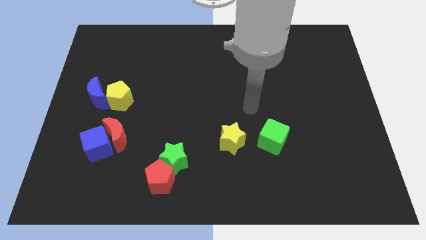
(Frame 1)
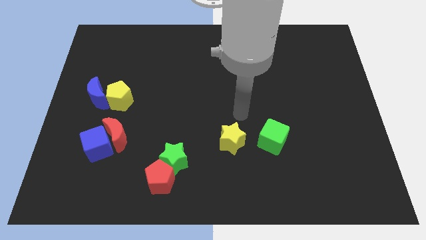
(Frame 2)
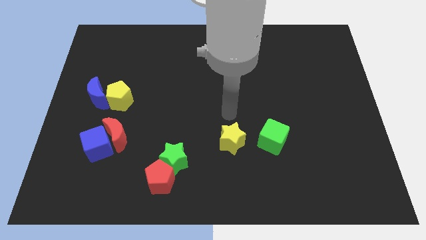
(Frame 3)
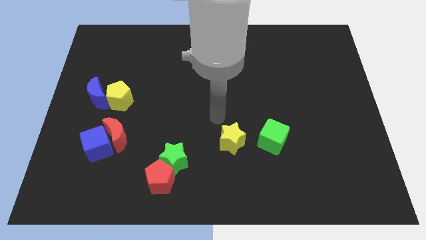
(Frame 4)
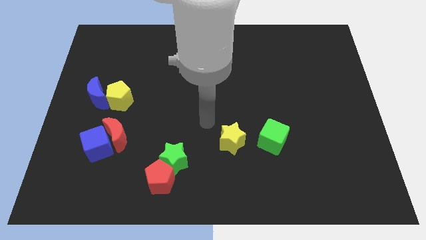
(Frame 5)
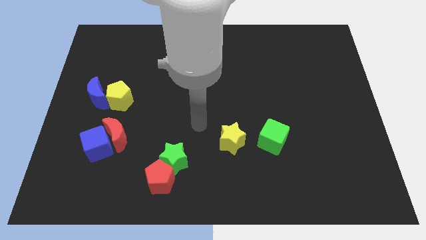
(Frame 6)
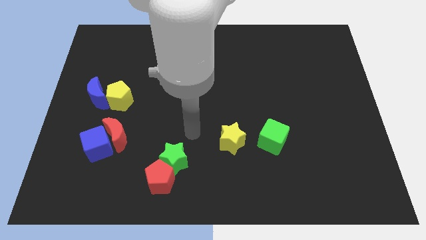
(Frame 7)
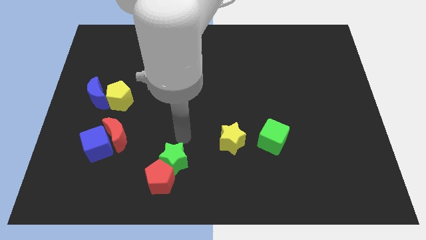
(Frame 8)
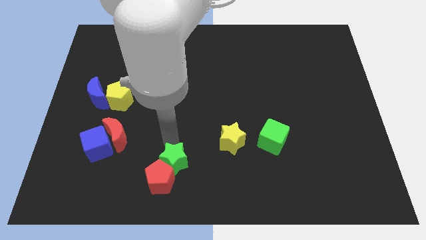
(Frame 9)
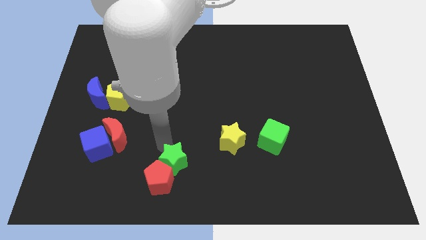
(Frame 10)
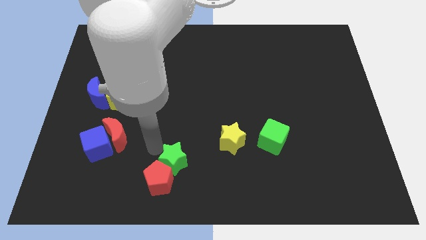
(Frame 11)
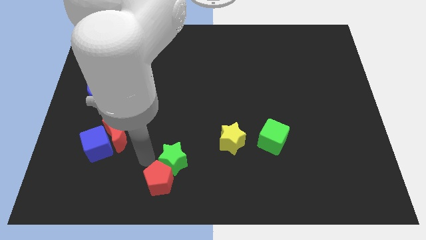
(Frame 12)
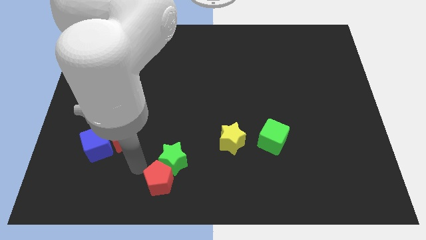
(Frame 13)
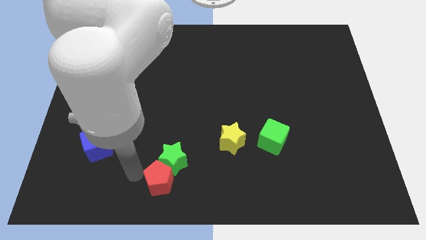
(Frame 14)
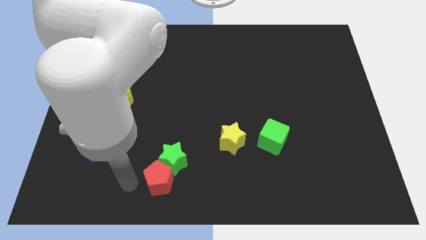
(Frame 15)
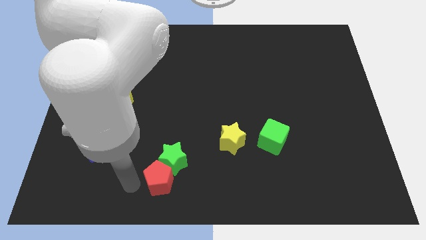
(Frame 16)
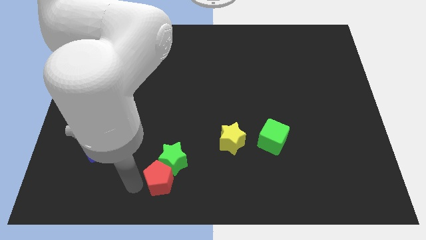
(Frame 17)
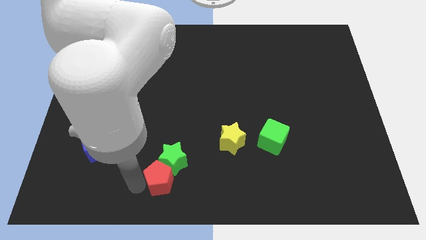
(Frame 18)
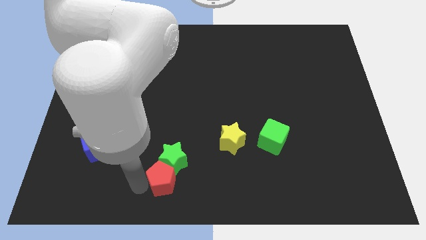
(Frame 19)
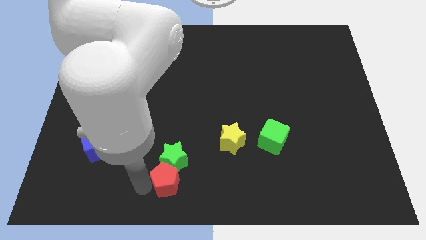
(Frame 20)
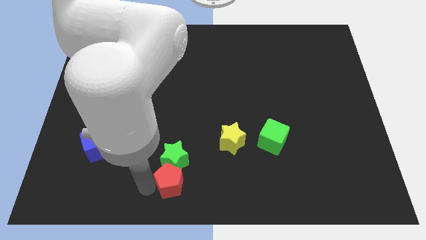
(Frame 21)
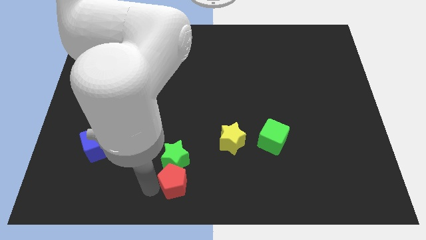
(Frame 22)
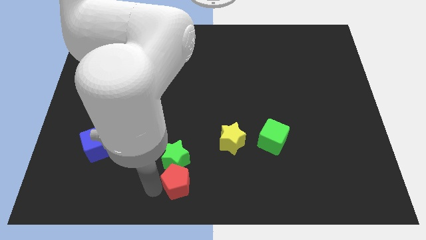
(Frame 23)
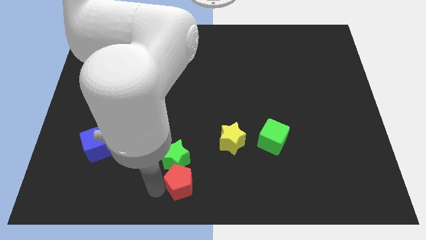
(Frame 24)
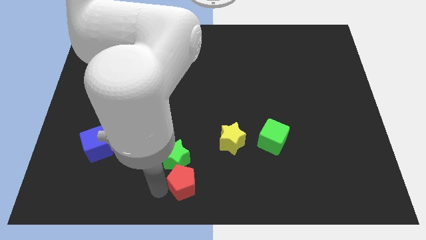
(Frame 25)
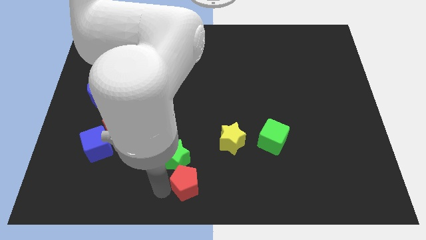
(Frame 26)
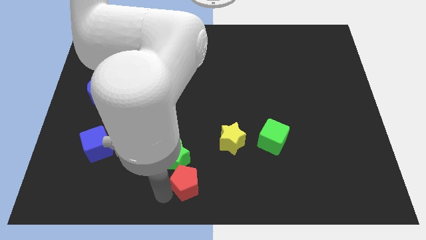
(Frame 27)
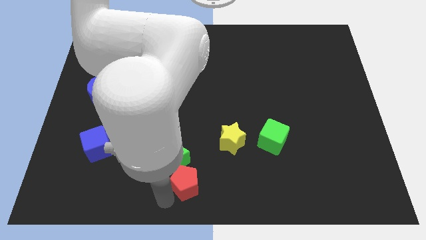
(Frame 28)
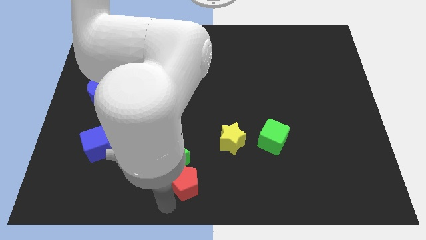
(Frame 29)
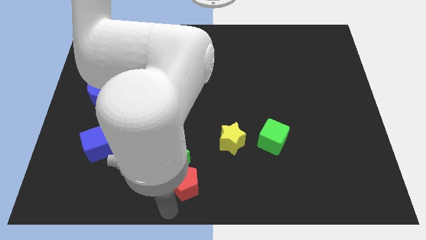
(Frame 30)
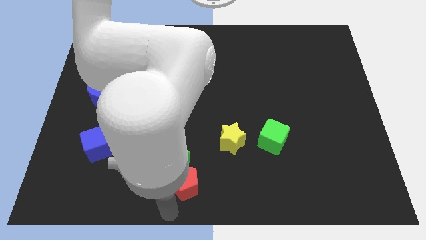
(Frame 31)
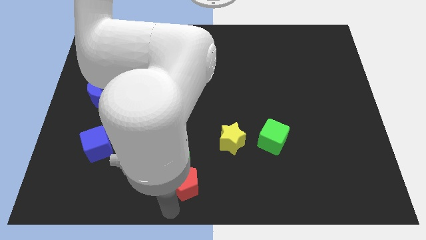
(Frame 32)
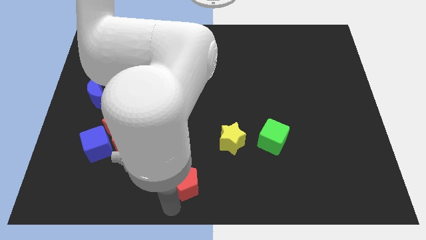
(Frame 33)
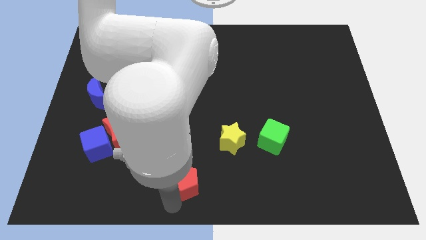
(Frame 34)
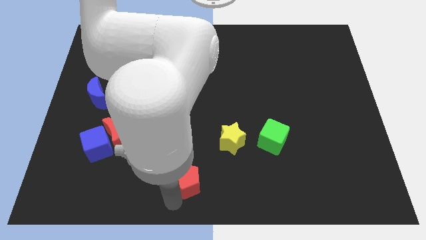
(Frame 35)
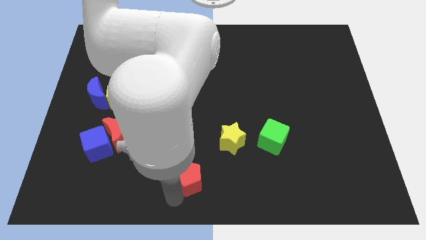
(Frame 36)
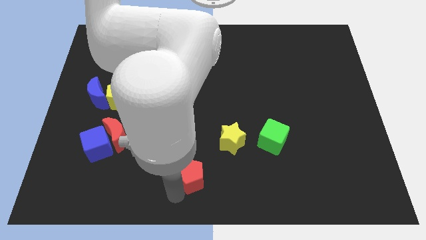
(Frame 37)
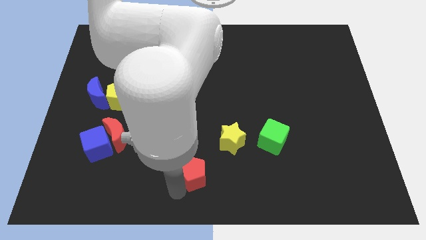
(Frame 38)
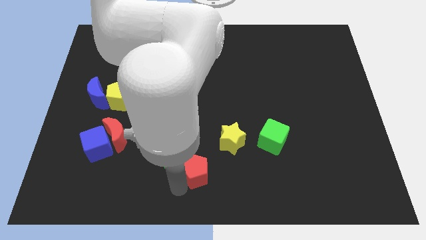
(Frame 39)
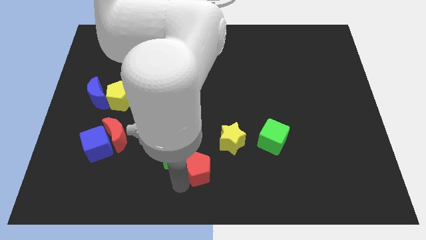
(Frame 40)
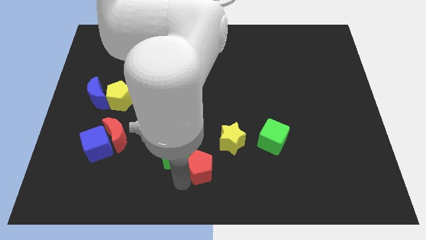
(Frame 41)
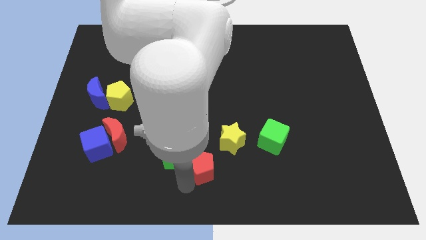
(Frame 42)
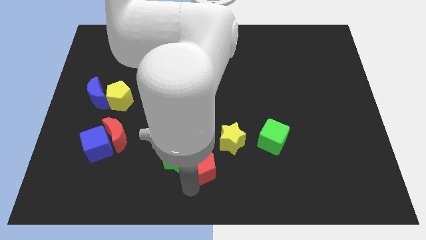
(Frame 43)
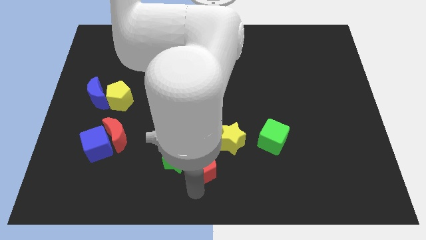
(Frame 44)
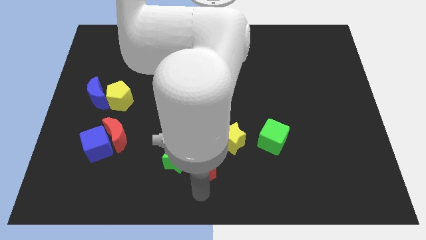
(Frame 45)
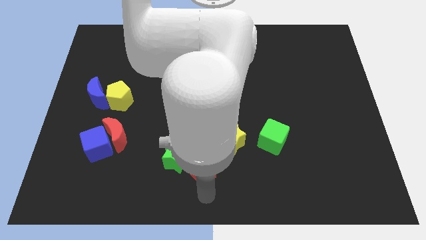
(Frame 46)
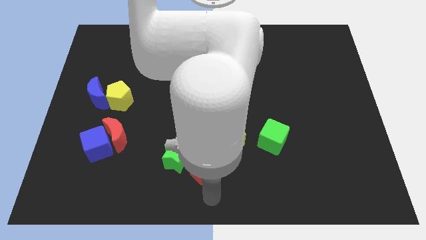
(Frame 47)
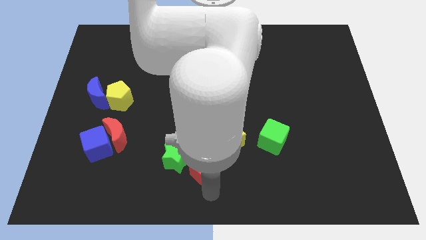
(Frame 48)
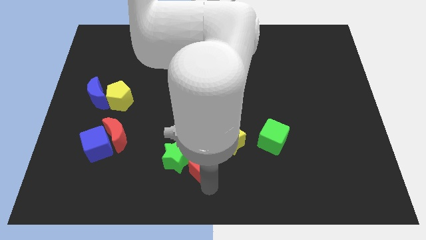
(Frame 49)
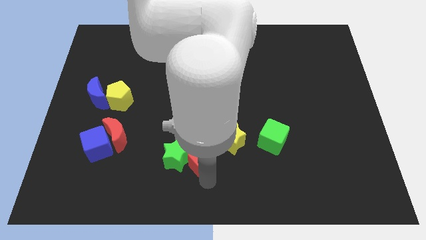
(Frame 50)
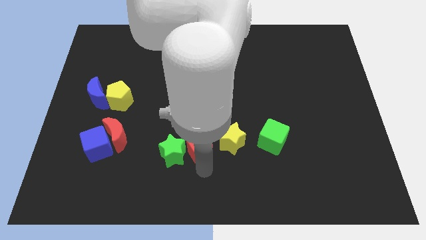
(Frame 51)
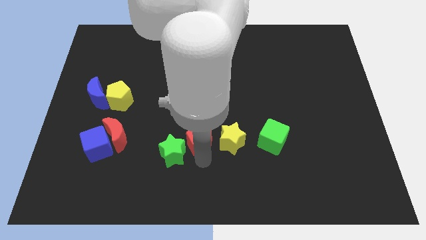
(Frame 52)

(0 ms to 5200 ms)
put the red pentagon to the center

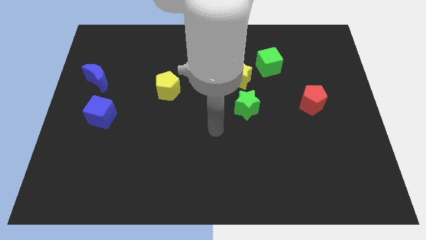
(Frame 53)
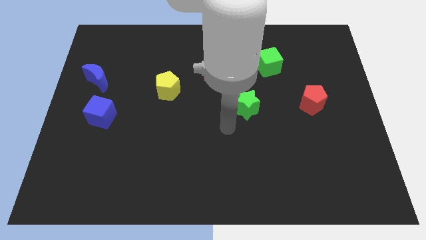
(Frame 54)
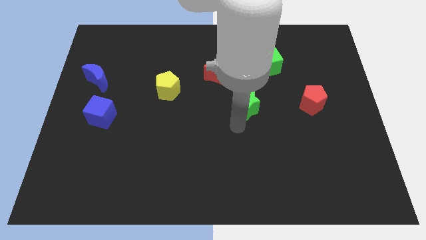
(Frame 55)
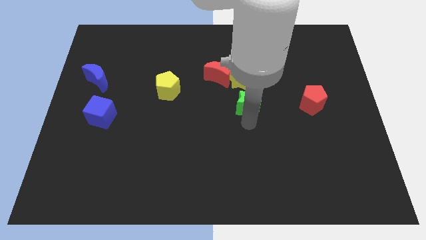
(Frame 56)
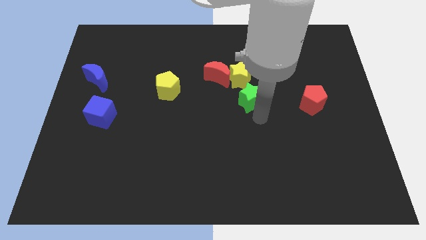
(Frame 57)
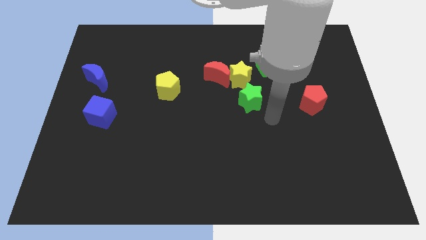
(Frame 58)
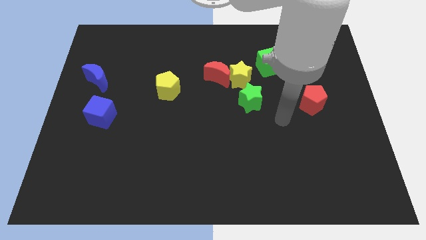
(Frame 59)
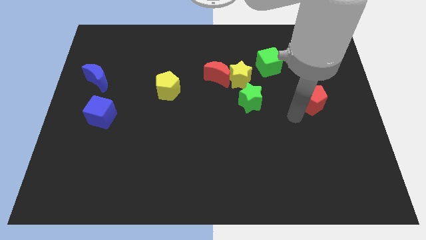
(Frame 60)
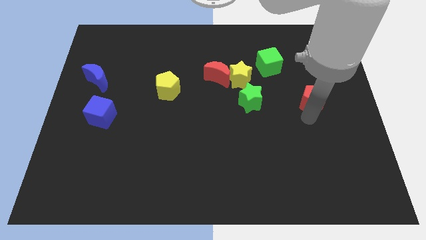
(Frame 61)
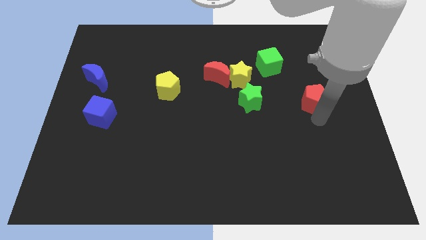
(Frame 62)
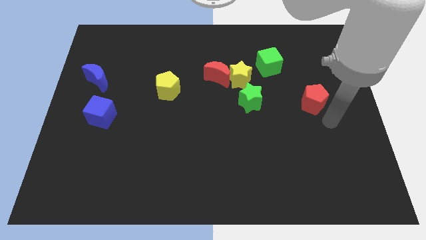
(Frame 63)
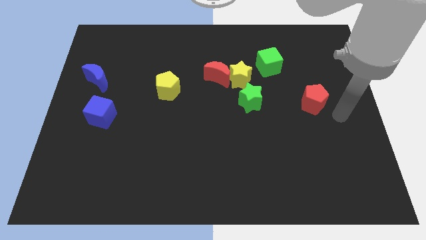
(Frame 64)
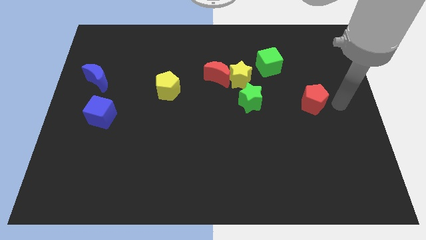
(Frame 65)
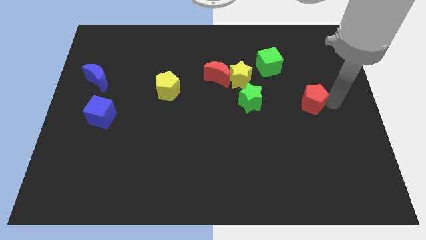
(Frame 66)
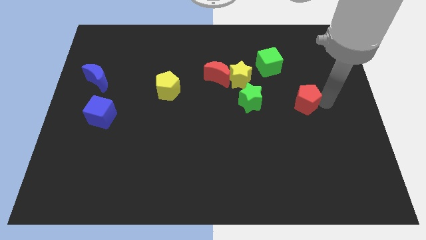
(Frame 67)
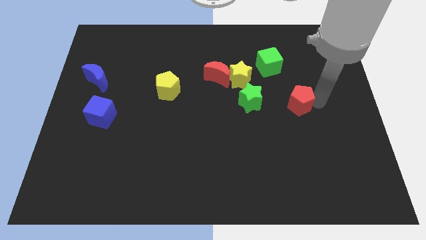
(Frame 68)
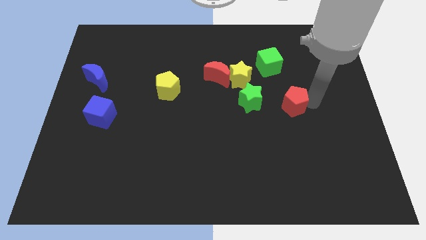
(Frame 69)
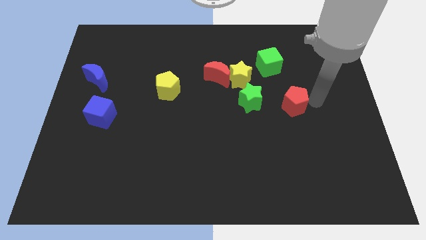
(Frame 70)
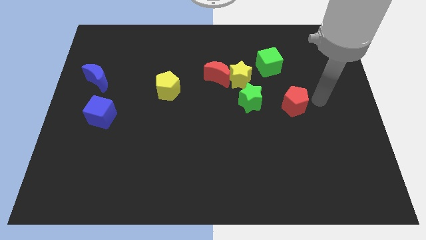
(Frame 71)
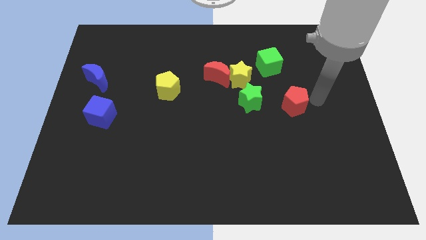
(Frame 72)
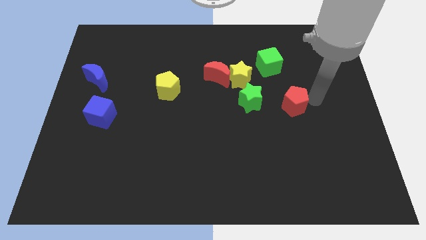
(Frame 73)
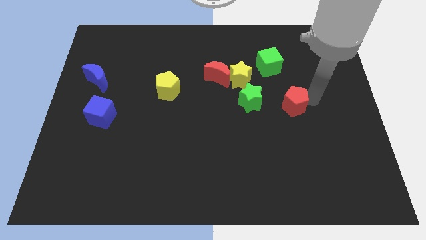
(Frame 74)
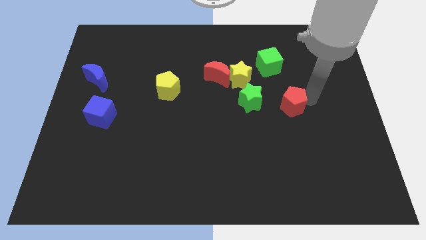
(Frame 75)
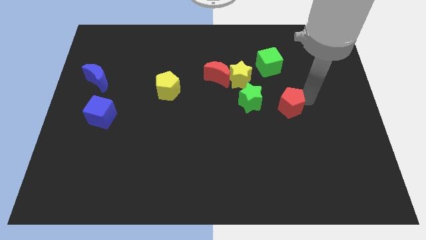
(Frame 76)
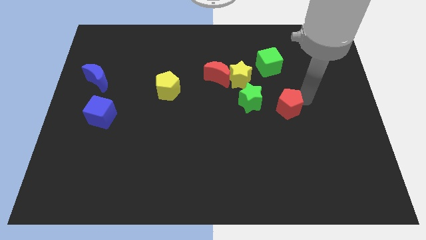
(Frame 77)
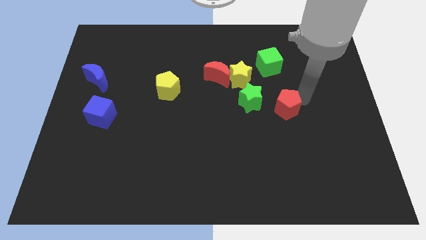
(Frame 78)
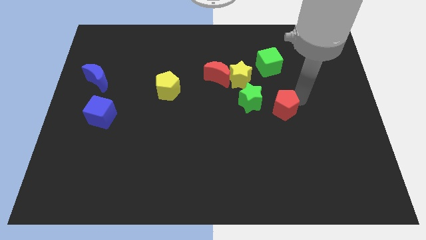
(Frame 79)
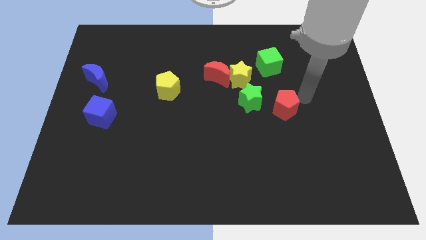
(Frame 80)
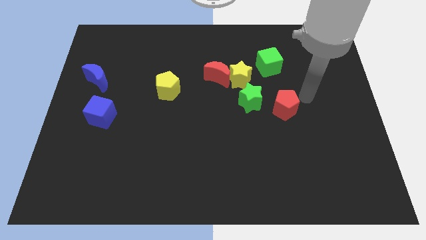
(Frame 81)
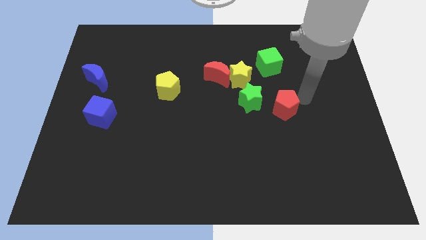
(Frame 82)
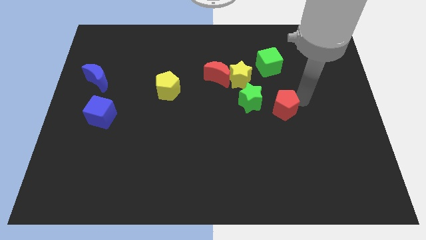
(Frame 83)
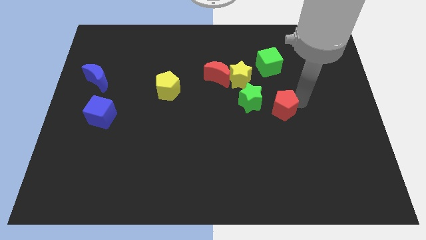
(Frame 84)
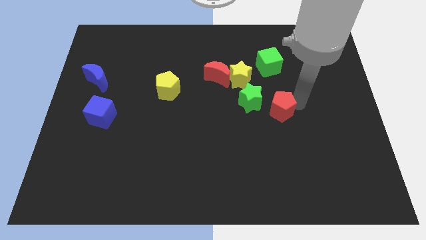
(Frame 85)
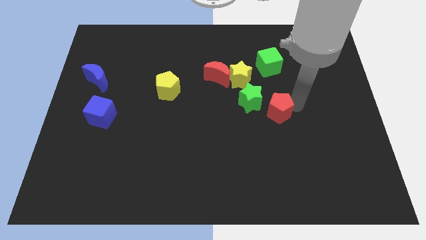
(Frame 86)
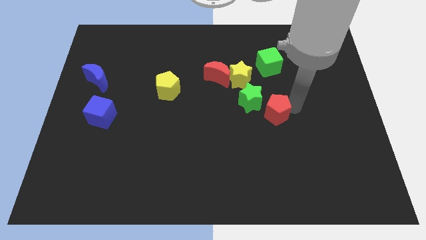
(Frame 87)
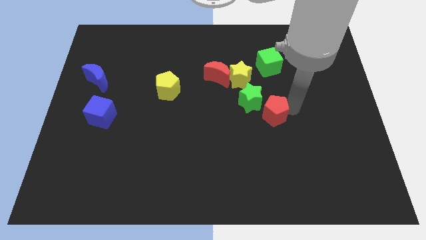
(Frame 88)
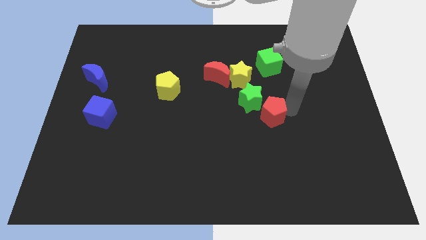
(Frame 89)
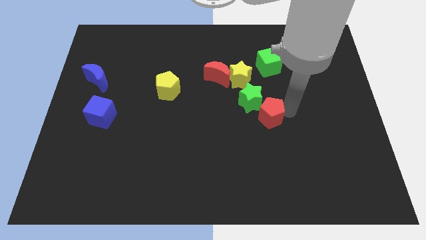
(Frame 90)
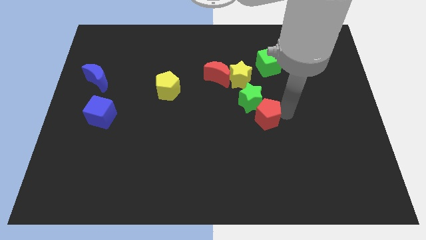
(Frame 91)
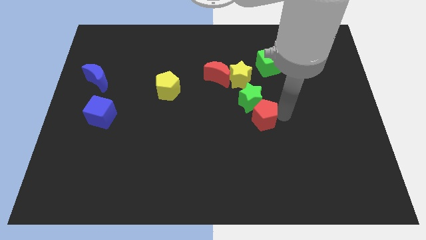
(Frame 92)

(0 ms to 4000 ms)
push the red pentagon to the middle
